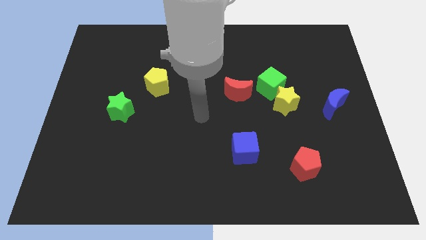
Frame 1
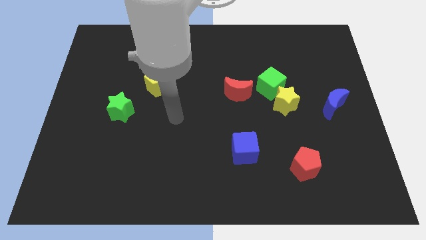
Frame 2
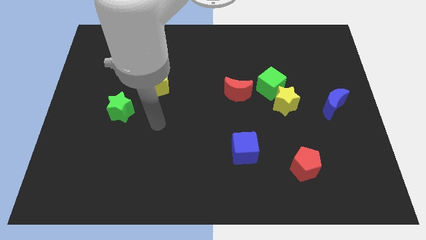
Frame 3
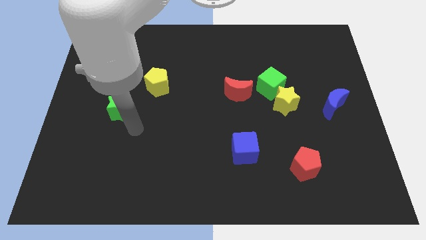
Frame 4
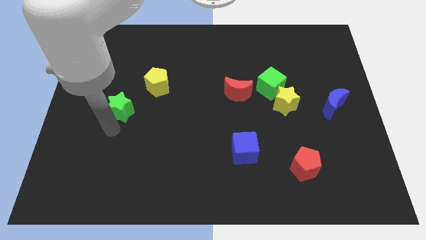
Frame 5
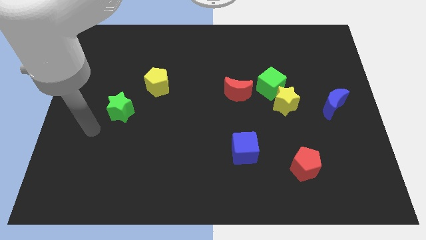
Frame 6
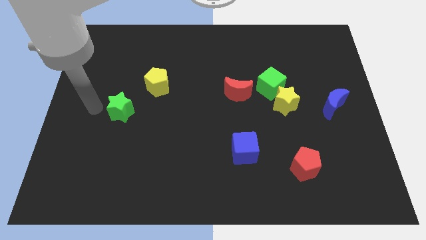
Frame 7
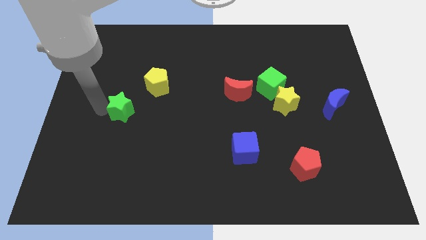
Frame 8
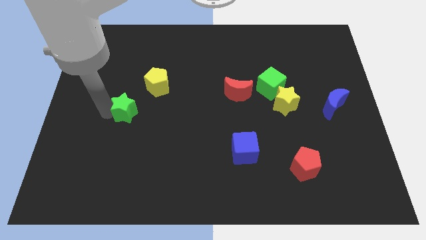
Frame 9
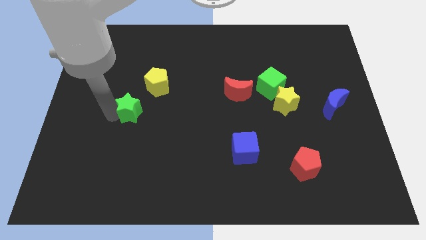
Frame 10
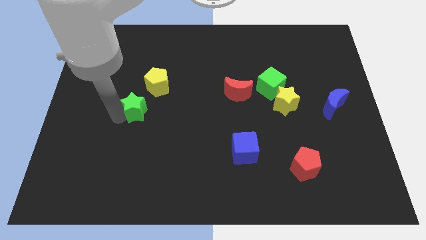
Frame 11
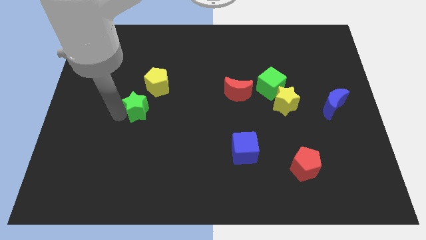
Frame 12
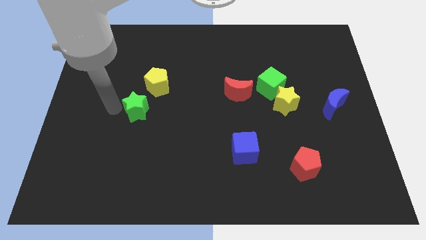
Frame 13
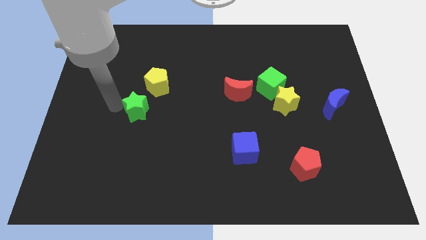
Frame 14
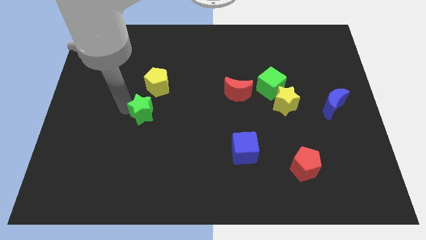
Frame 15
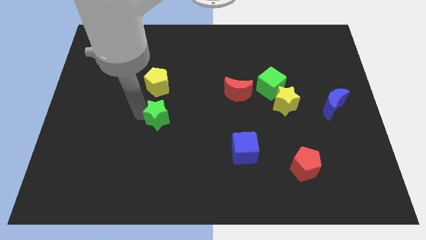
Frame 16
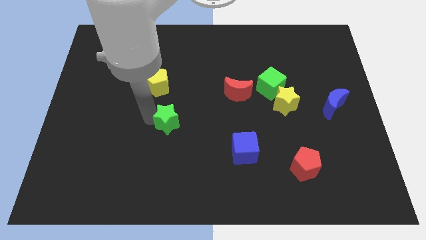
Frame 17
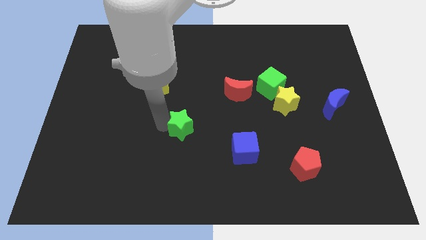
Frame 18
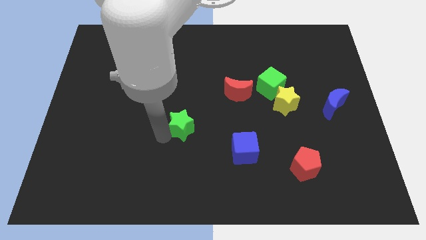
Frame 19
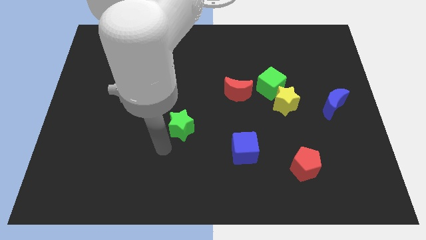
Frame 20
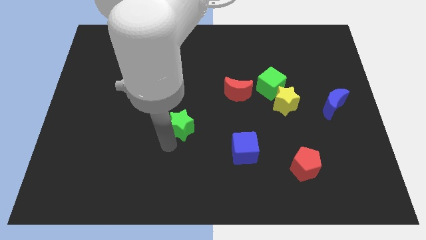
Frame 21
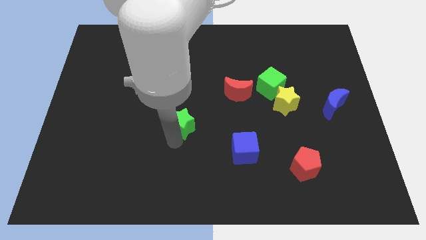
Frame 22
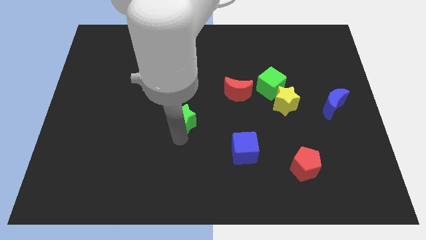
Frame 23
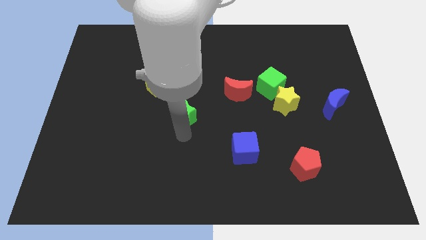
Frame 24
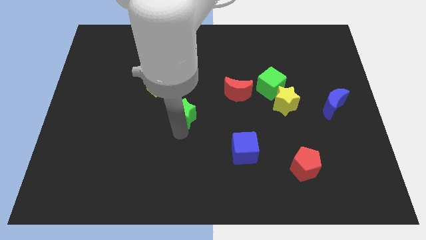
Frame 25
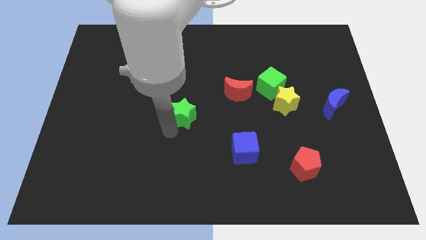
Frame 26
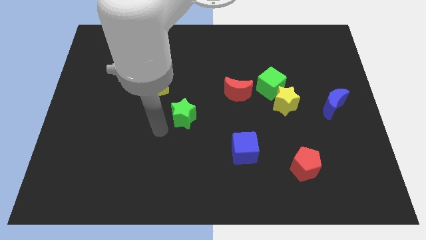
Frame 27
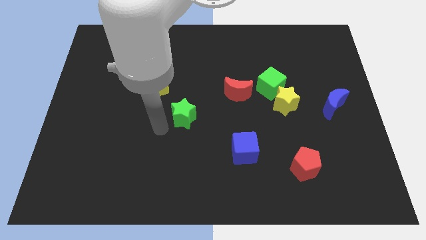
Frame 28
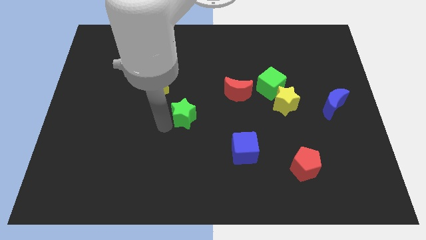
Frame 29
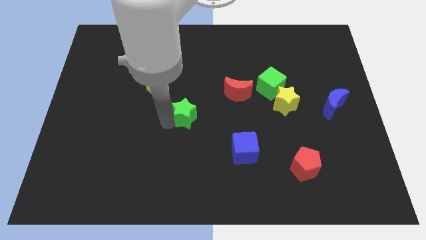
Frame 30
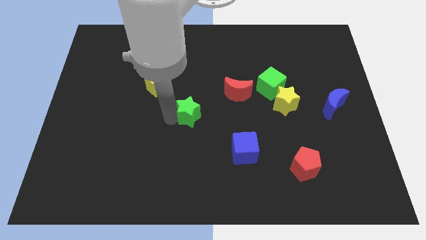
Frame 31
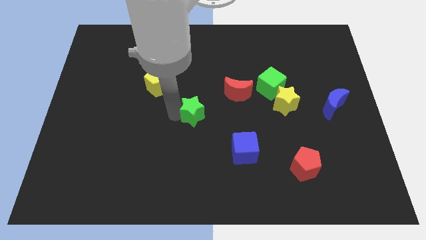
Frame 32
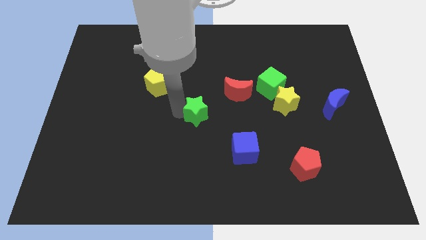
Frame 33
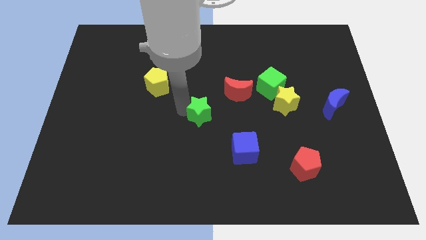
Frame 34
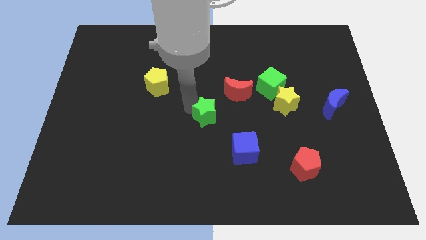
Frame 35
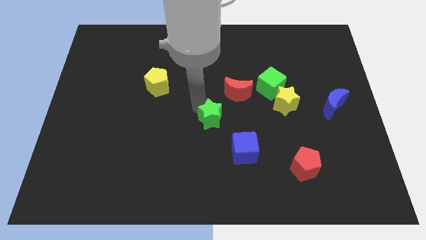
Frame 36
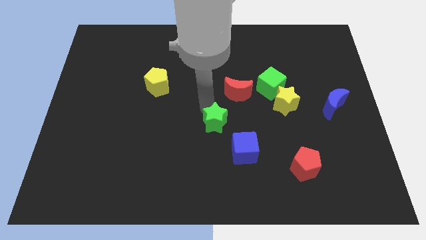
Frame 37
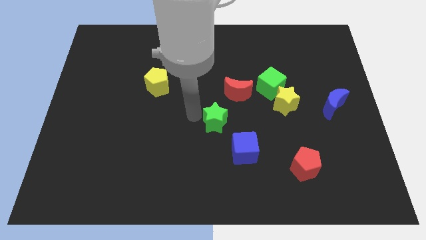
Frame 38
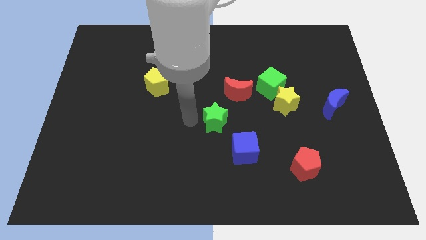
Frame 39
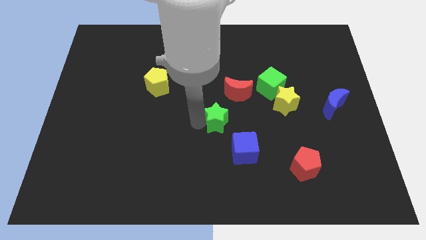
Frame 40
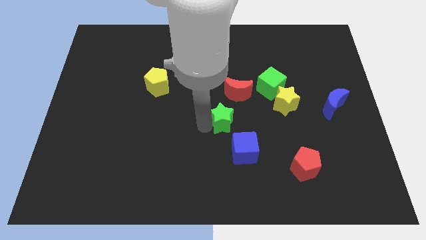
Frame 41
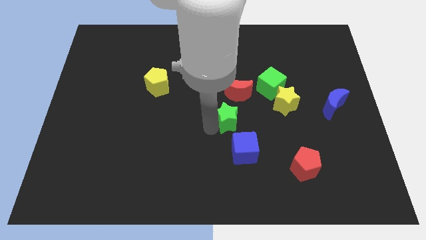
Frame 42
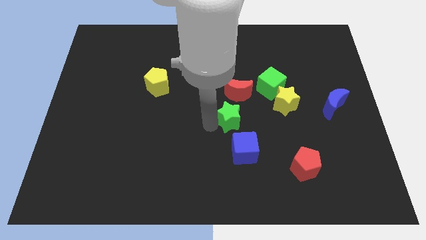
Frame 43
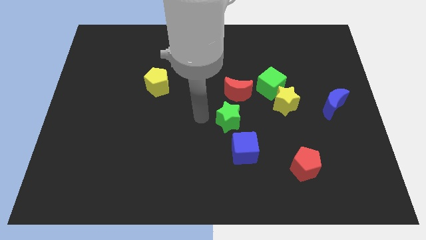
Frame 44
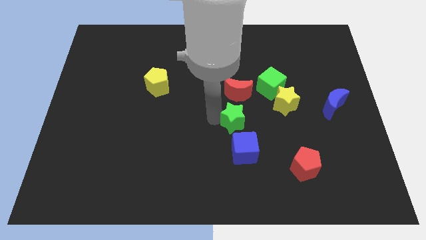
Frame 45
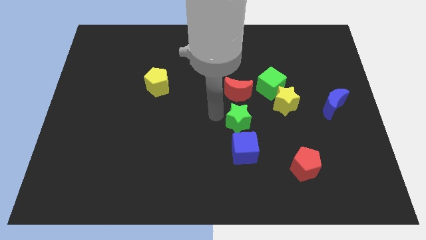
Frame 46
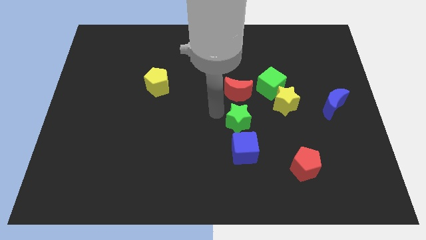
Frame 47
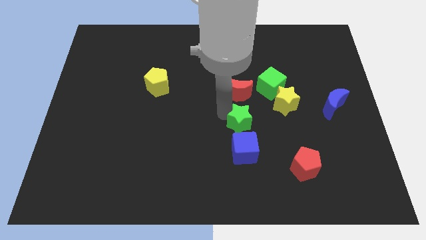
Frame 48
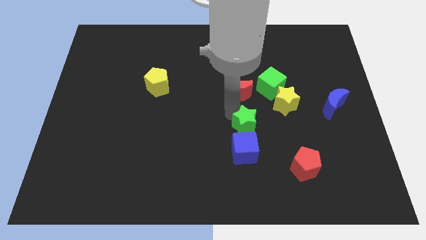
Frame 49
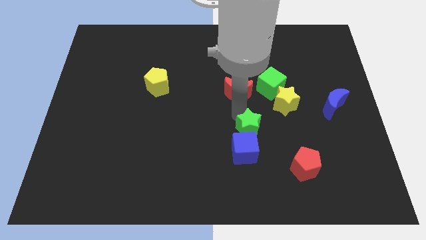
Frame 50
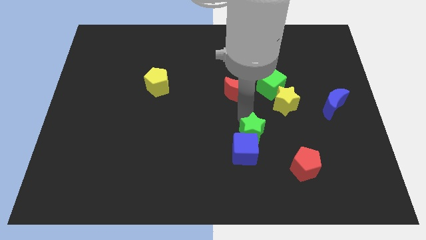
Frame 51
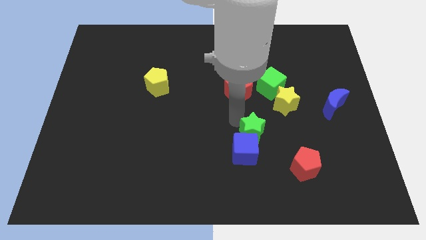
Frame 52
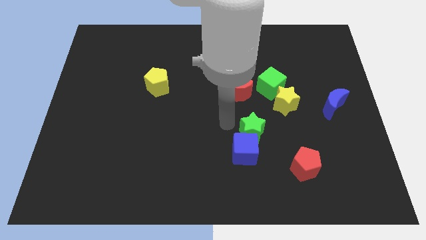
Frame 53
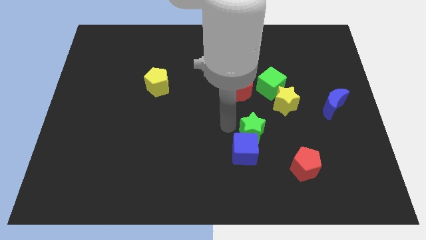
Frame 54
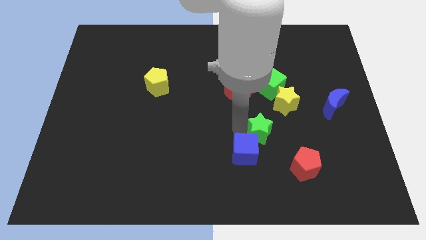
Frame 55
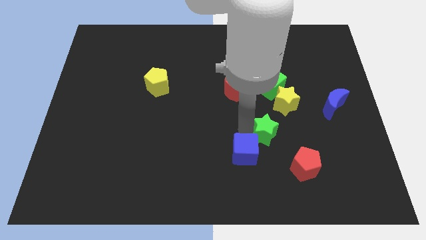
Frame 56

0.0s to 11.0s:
slide the green star to the right of the blue cube

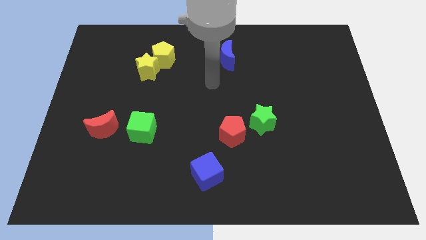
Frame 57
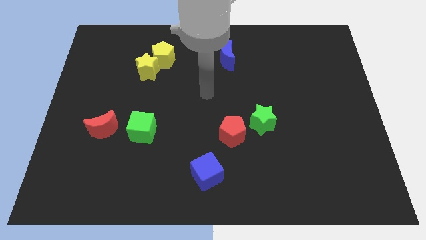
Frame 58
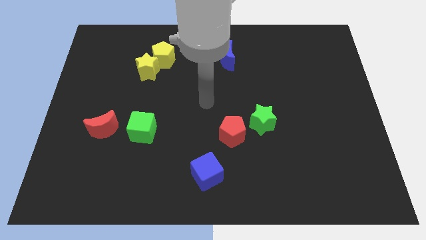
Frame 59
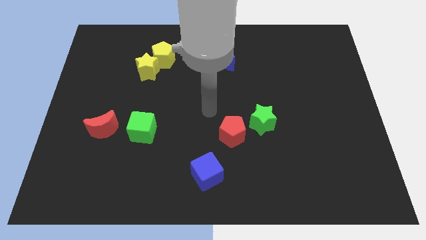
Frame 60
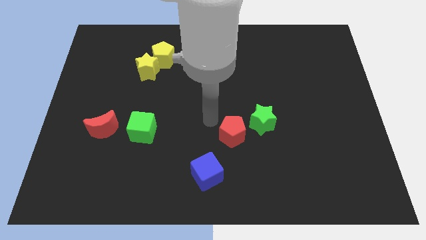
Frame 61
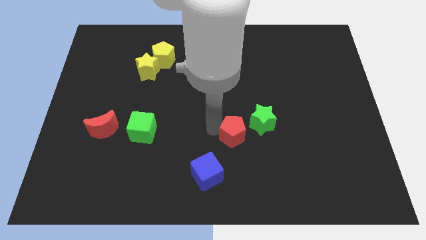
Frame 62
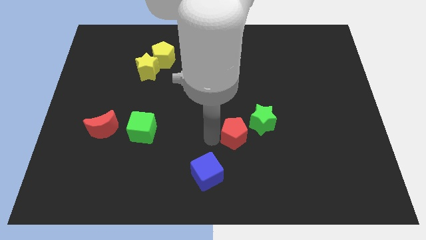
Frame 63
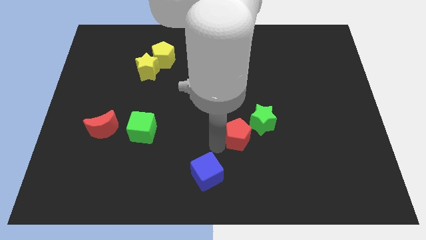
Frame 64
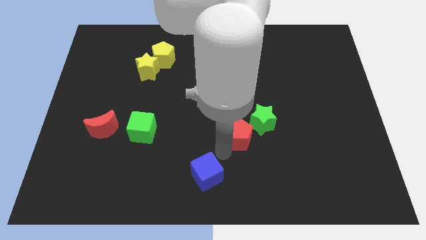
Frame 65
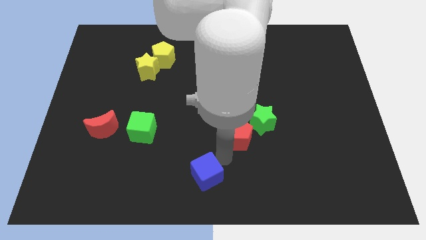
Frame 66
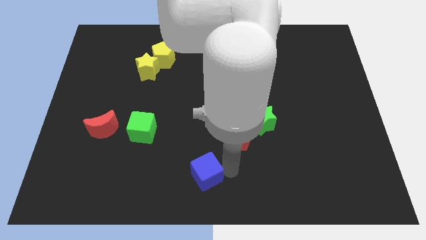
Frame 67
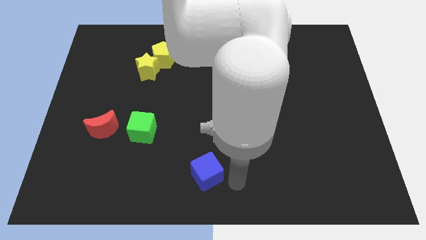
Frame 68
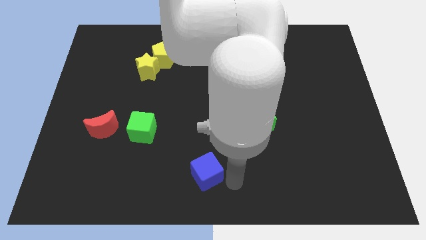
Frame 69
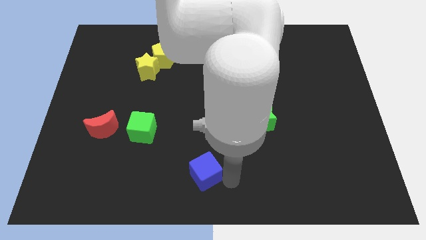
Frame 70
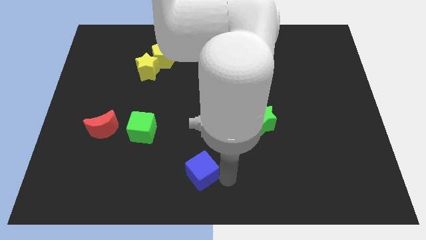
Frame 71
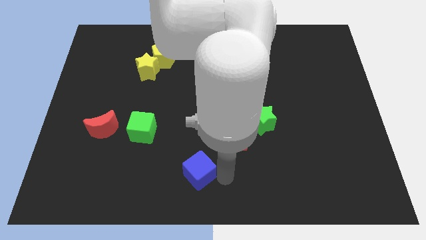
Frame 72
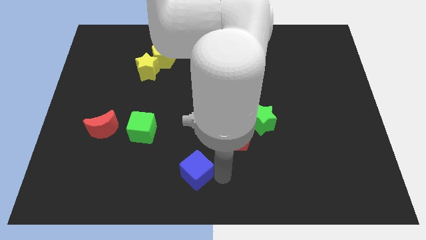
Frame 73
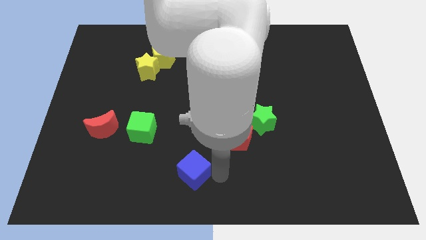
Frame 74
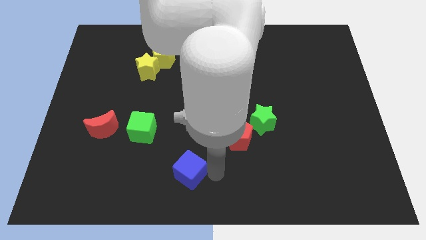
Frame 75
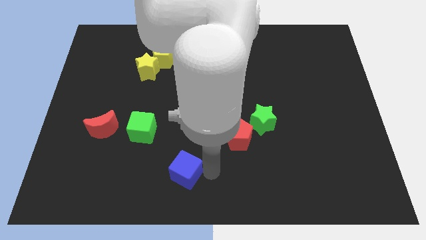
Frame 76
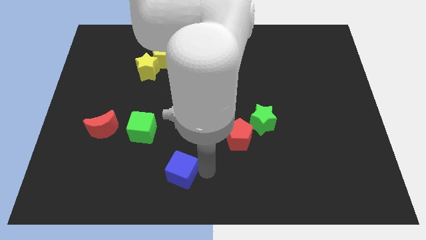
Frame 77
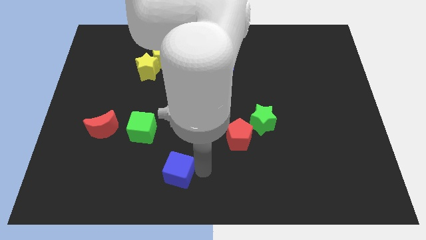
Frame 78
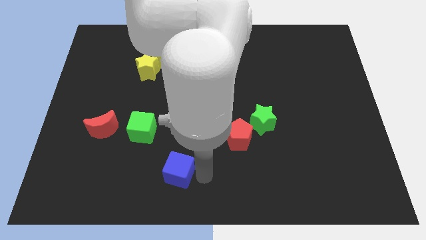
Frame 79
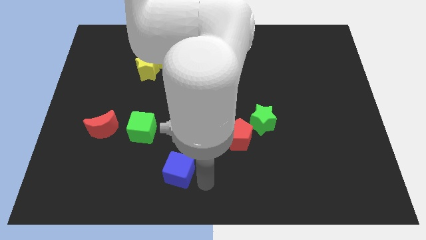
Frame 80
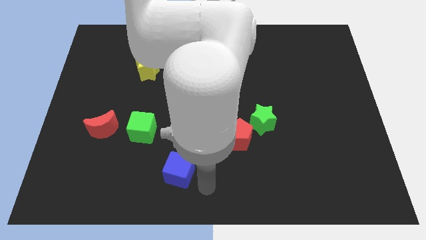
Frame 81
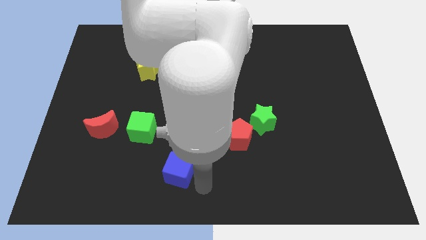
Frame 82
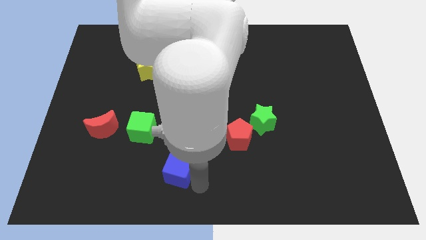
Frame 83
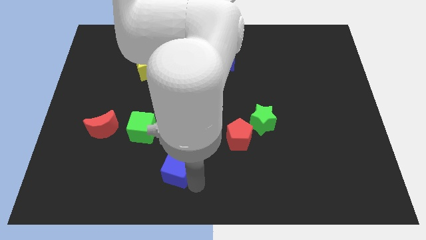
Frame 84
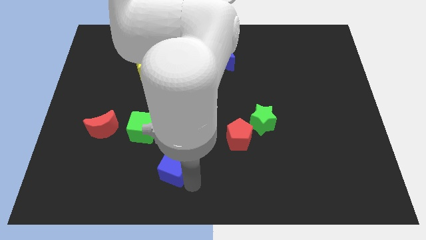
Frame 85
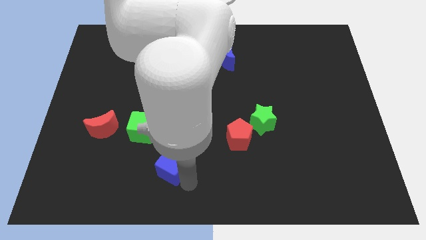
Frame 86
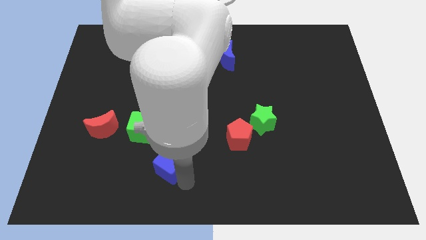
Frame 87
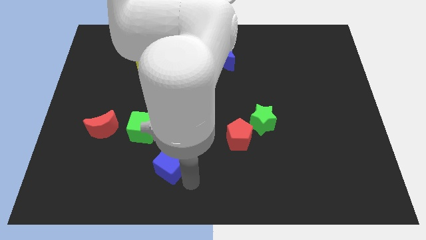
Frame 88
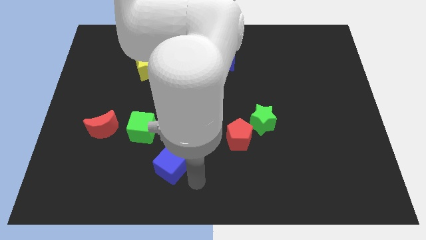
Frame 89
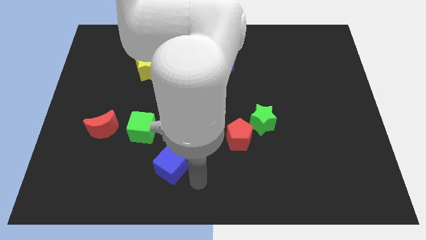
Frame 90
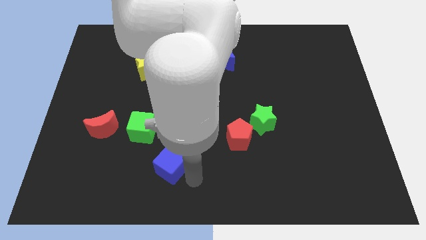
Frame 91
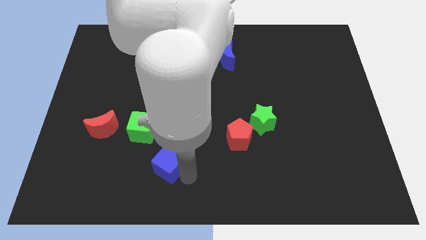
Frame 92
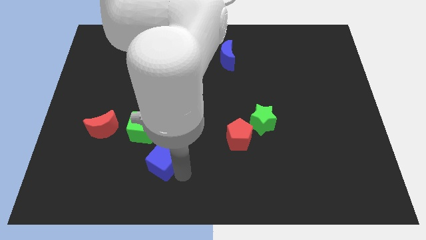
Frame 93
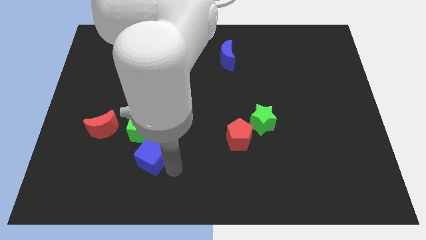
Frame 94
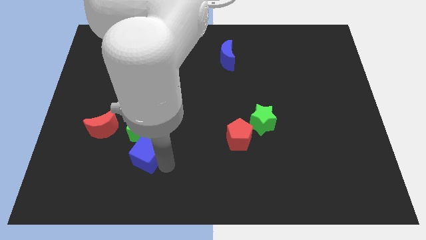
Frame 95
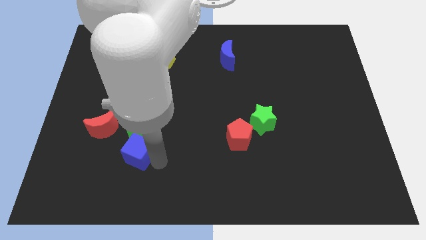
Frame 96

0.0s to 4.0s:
put the blue cube to the bottom right of the red moon
